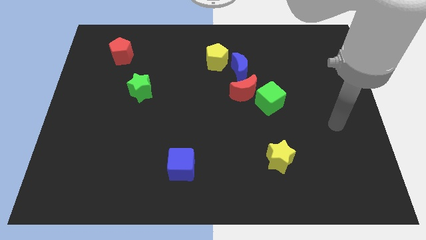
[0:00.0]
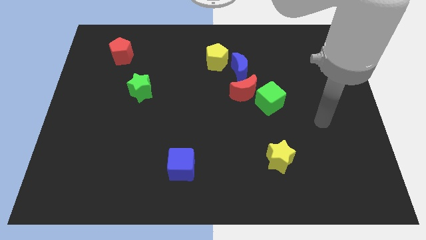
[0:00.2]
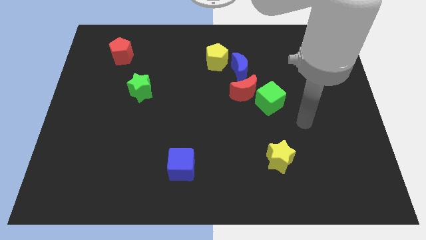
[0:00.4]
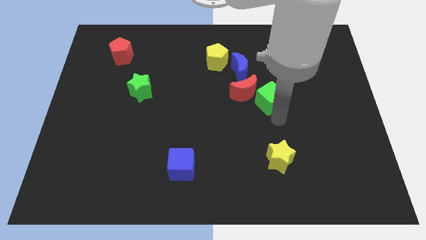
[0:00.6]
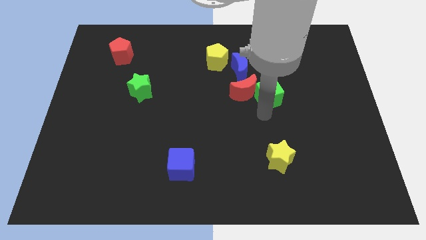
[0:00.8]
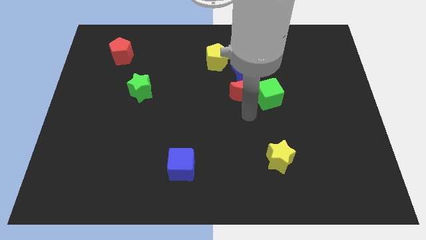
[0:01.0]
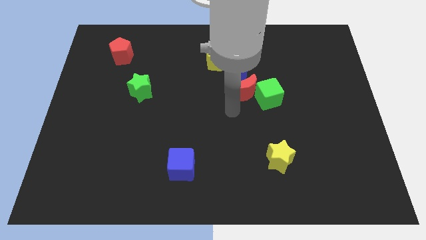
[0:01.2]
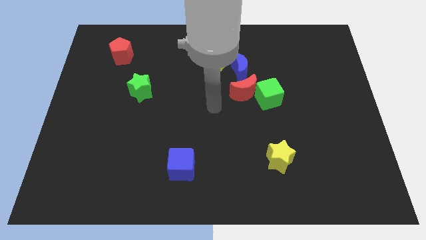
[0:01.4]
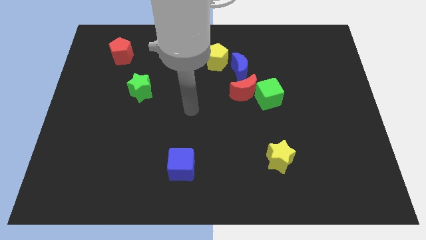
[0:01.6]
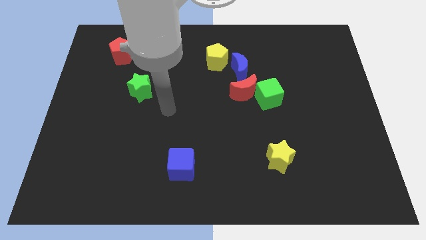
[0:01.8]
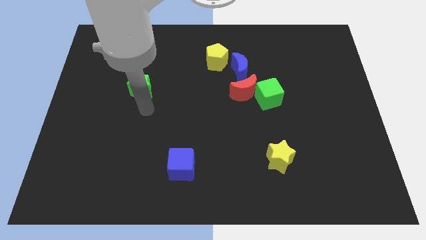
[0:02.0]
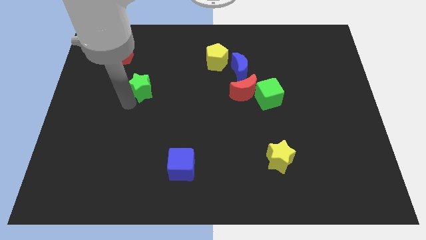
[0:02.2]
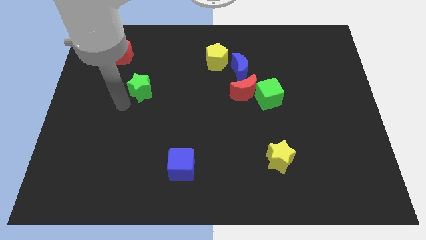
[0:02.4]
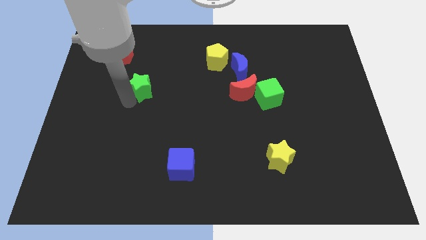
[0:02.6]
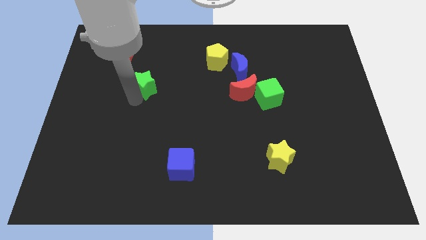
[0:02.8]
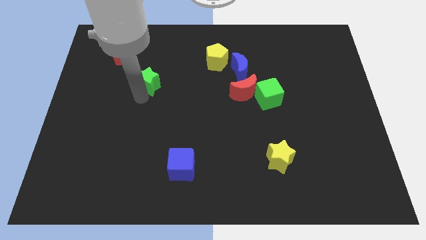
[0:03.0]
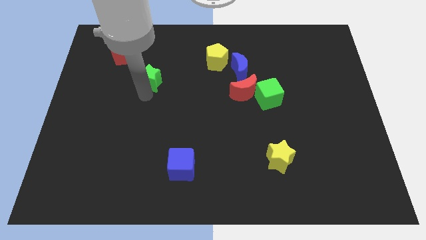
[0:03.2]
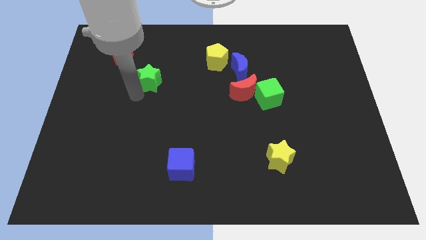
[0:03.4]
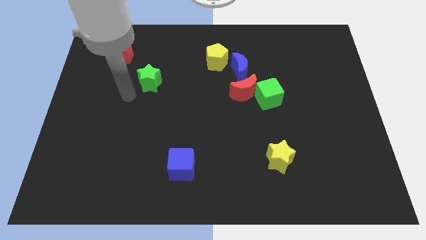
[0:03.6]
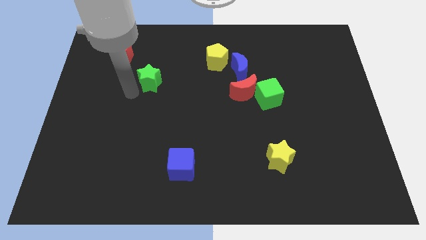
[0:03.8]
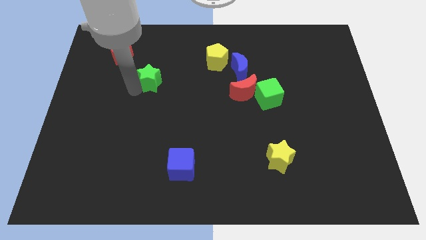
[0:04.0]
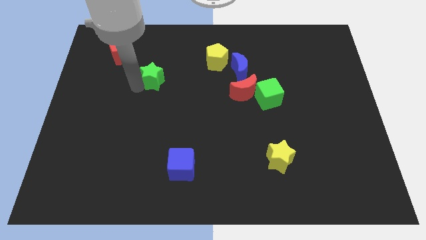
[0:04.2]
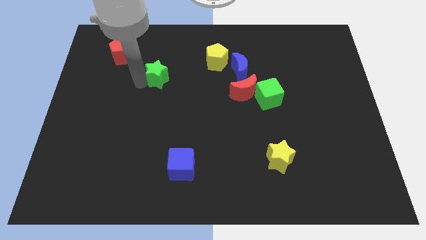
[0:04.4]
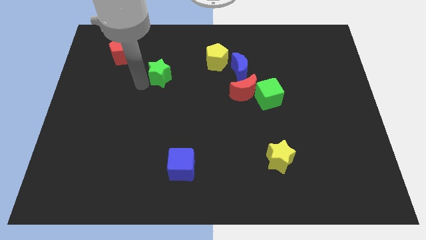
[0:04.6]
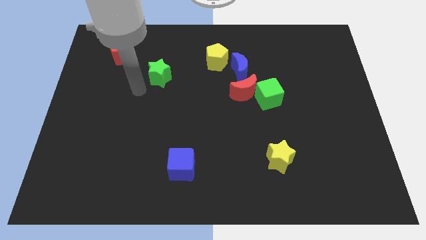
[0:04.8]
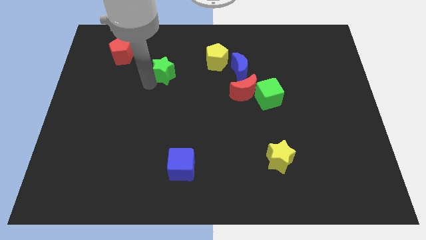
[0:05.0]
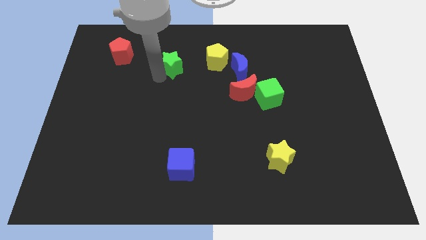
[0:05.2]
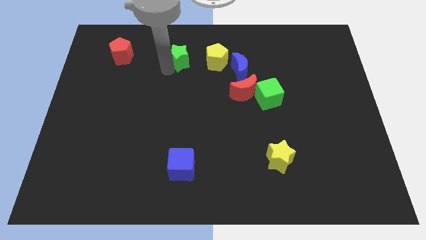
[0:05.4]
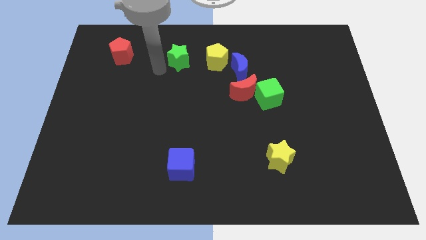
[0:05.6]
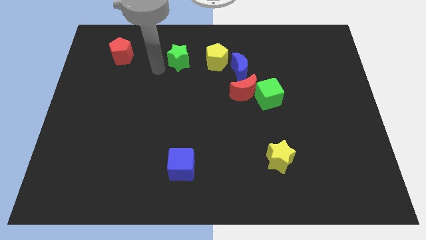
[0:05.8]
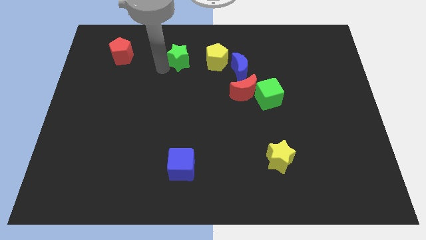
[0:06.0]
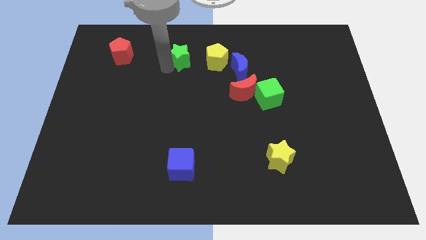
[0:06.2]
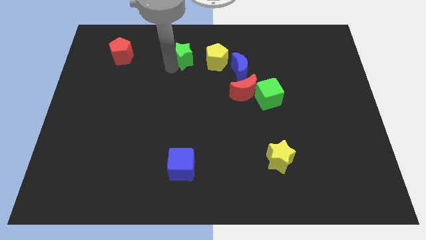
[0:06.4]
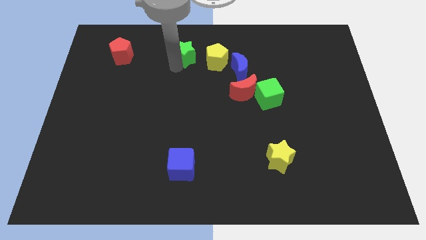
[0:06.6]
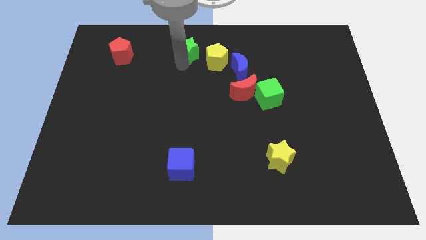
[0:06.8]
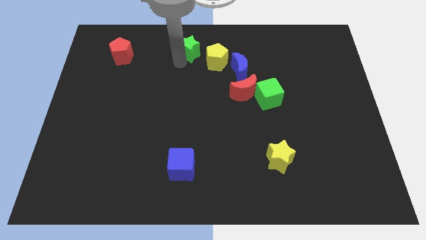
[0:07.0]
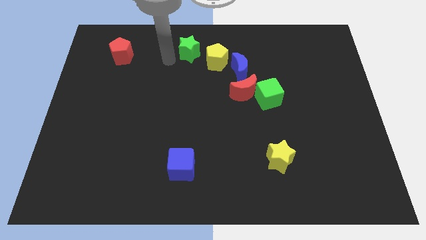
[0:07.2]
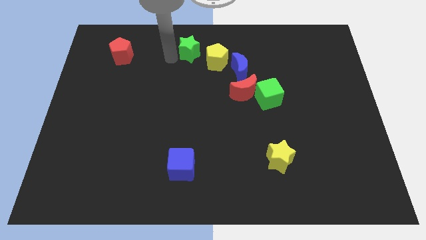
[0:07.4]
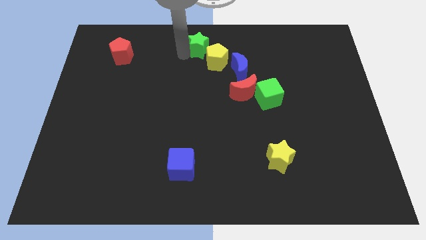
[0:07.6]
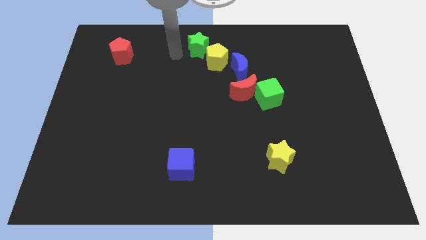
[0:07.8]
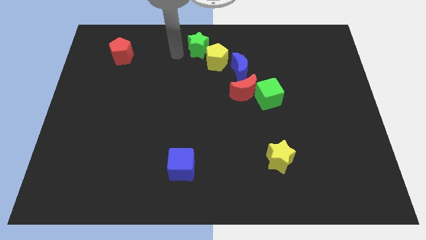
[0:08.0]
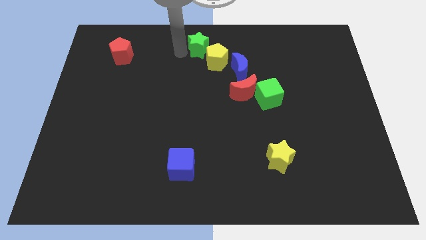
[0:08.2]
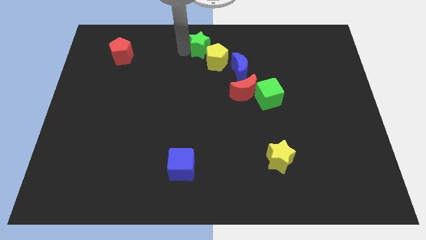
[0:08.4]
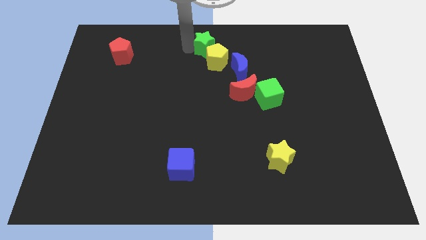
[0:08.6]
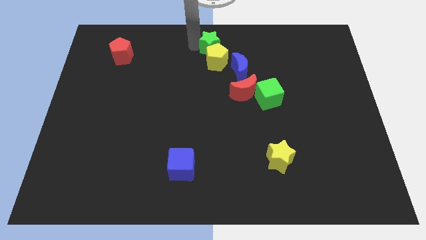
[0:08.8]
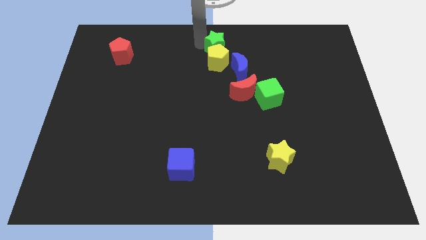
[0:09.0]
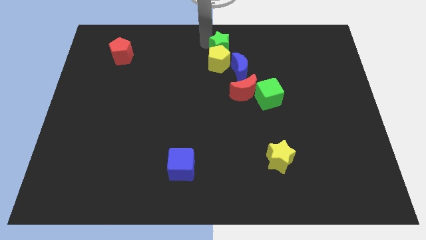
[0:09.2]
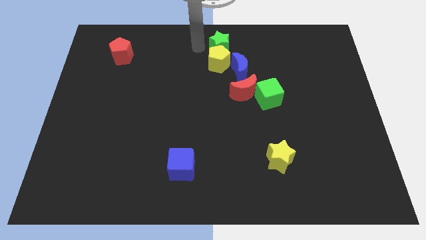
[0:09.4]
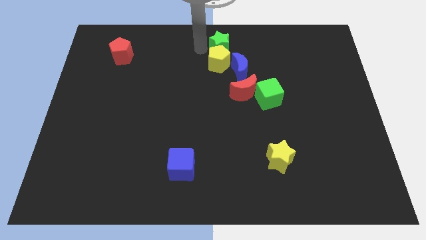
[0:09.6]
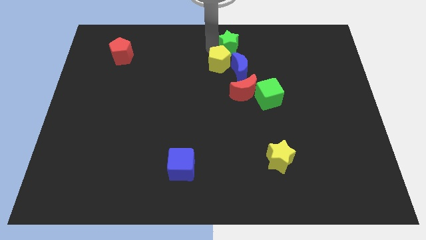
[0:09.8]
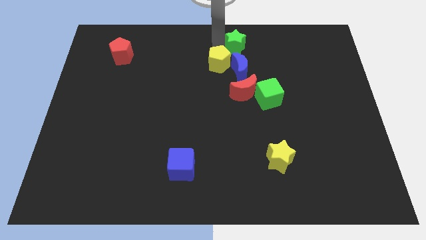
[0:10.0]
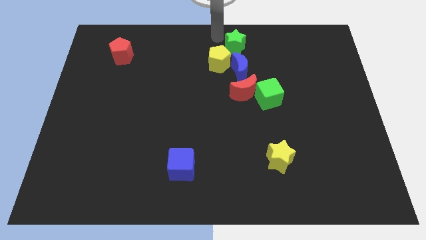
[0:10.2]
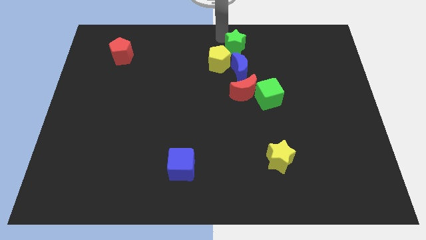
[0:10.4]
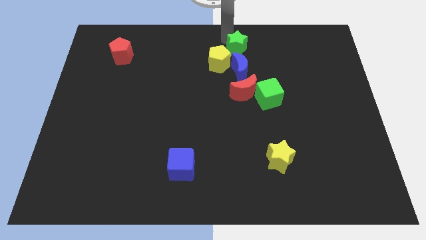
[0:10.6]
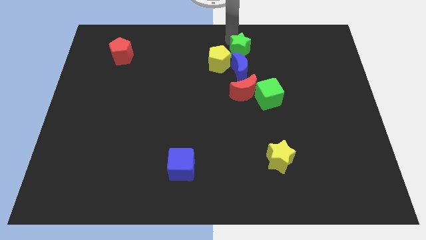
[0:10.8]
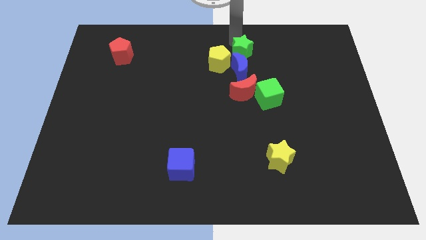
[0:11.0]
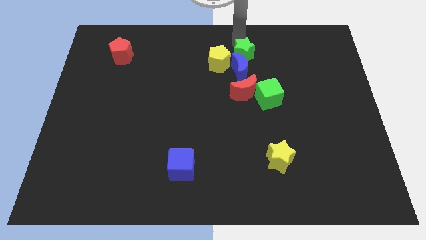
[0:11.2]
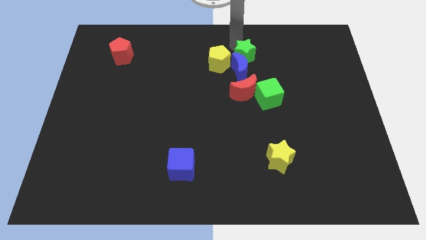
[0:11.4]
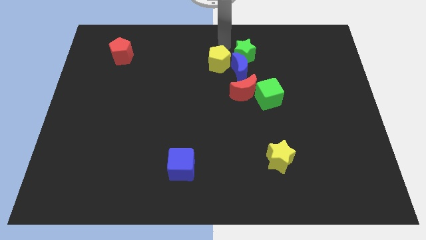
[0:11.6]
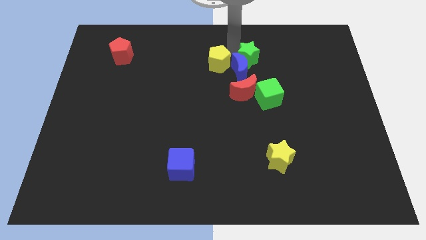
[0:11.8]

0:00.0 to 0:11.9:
push the green star to the top of the green cube

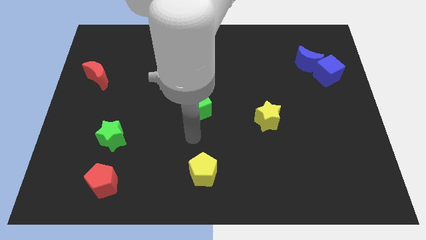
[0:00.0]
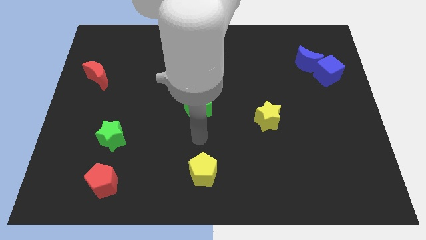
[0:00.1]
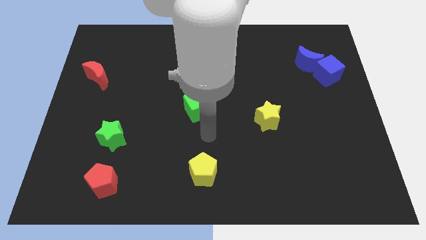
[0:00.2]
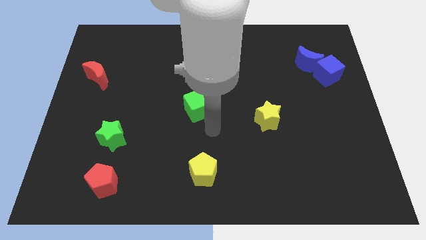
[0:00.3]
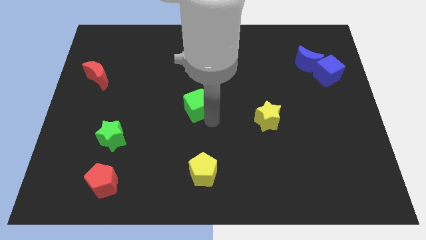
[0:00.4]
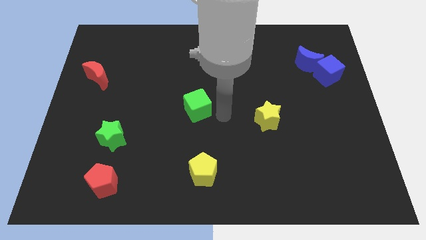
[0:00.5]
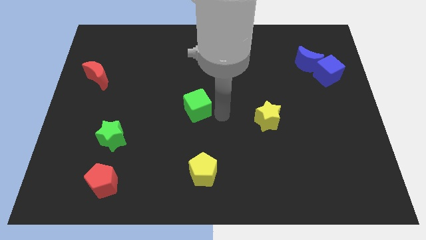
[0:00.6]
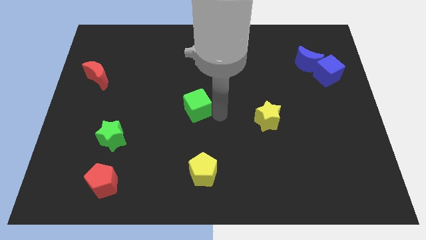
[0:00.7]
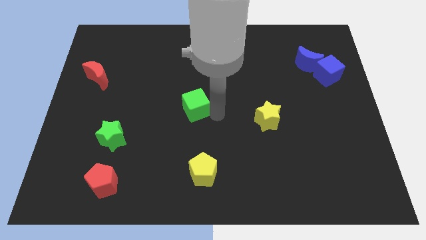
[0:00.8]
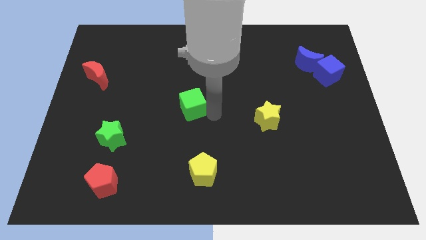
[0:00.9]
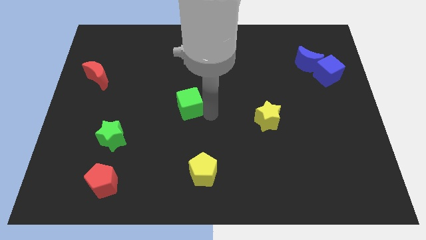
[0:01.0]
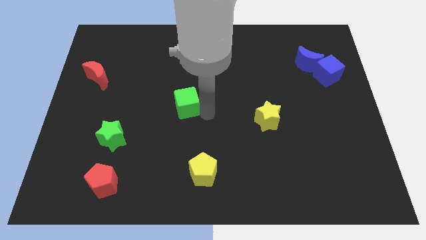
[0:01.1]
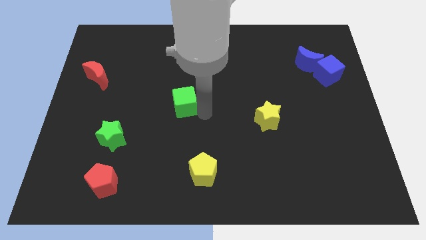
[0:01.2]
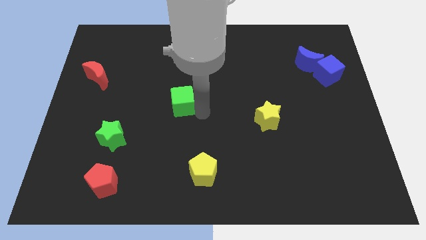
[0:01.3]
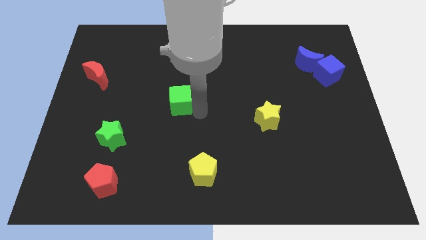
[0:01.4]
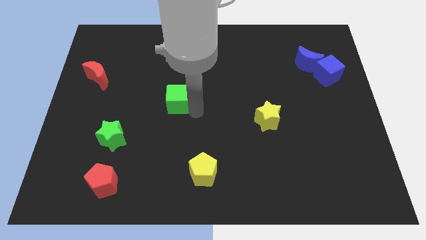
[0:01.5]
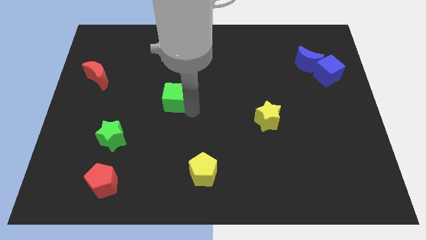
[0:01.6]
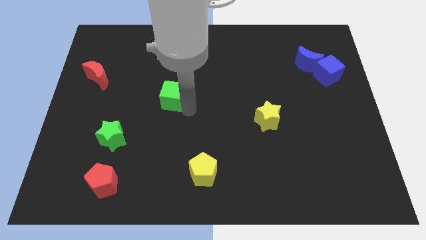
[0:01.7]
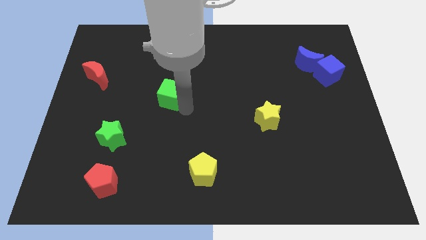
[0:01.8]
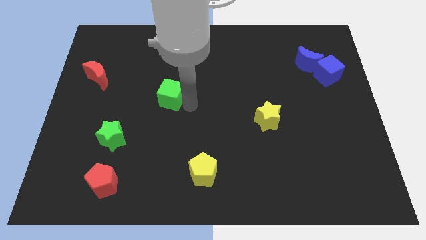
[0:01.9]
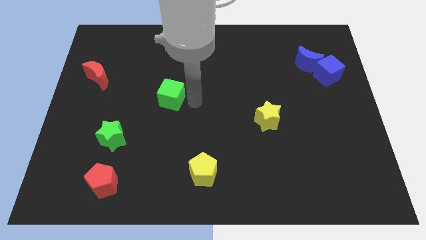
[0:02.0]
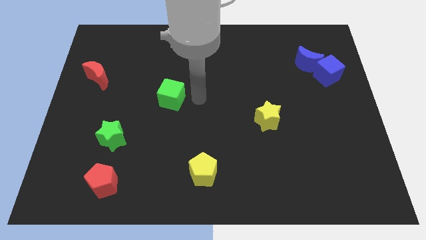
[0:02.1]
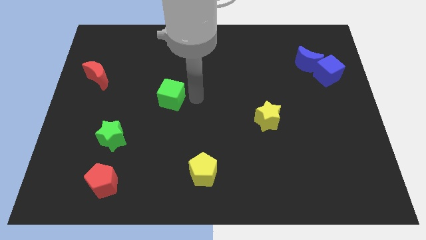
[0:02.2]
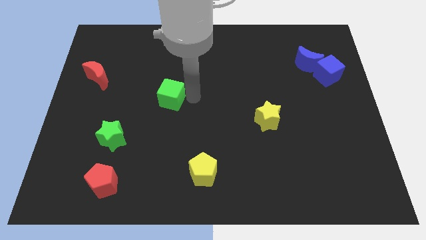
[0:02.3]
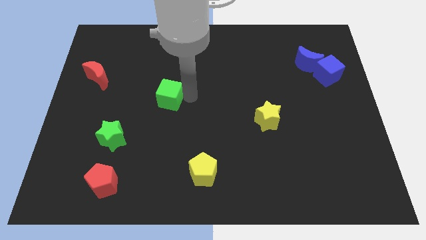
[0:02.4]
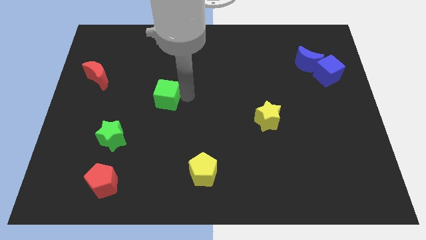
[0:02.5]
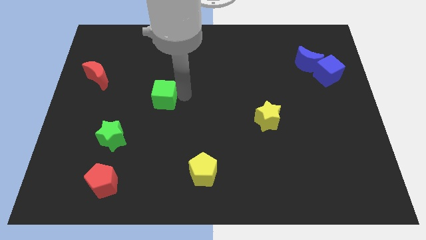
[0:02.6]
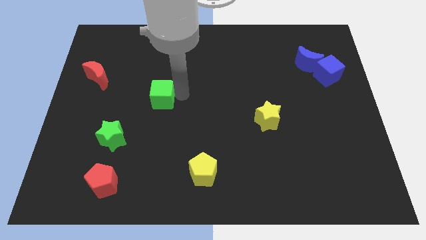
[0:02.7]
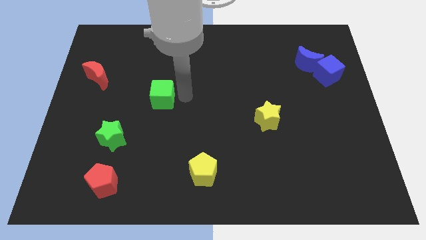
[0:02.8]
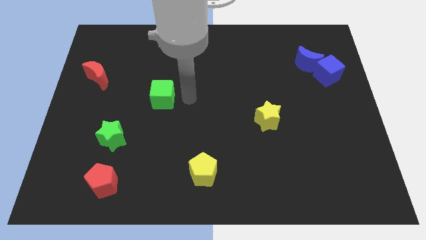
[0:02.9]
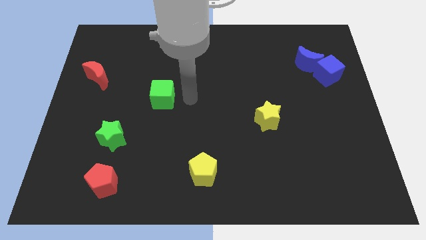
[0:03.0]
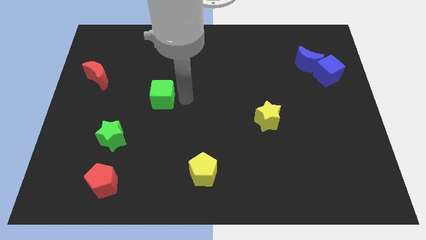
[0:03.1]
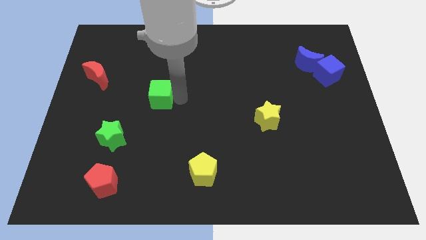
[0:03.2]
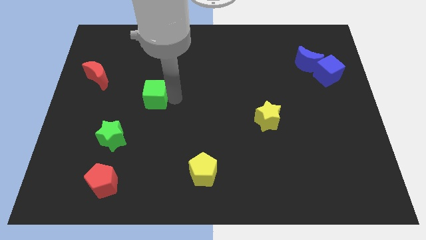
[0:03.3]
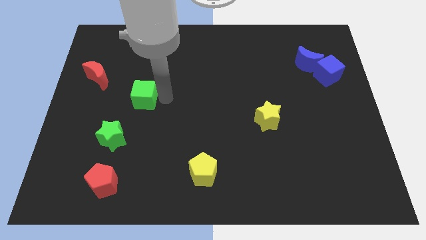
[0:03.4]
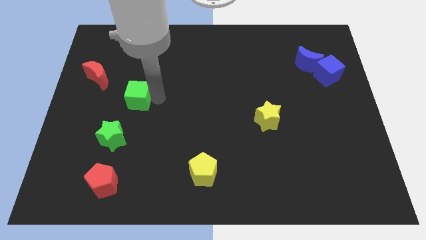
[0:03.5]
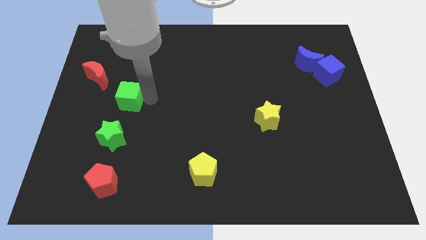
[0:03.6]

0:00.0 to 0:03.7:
slide the green cube to the bottom right of the red moon
